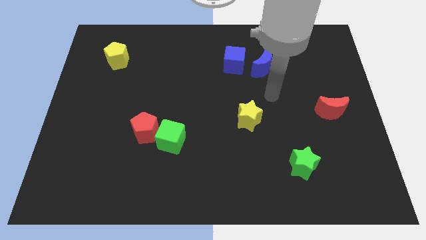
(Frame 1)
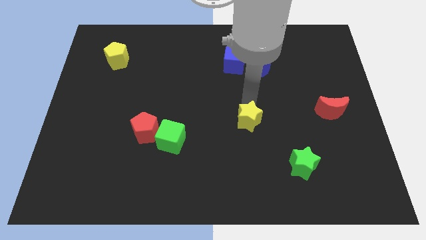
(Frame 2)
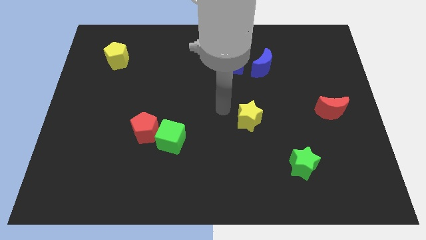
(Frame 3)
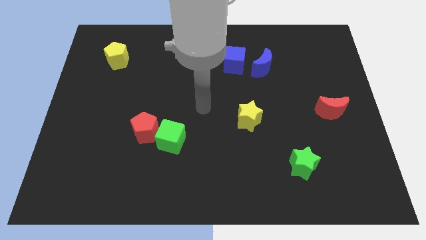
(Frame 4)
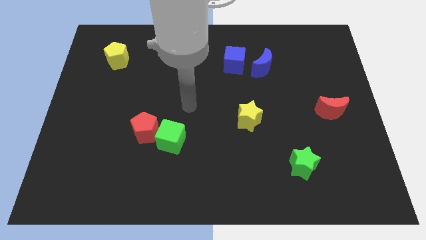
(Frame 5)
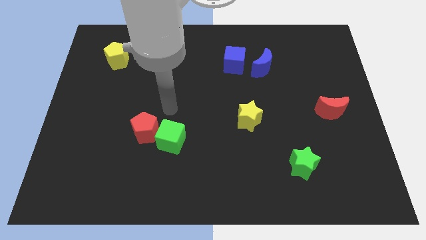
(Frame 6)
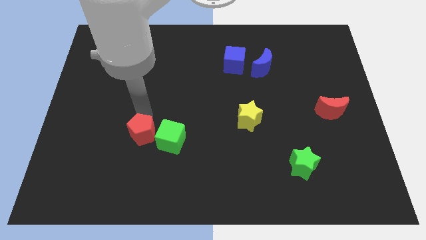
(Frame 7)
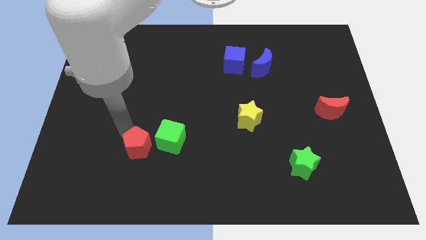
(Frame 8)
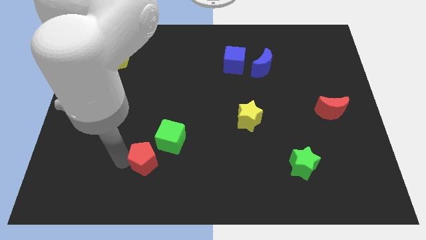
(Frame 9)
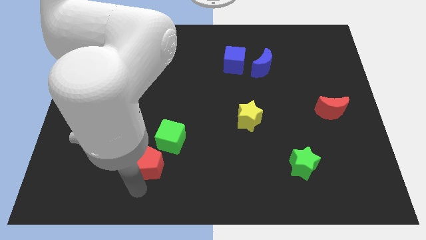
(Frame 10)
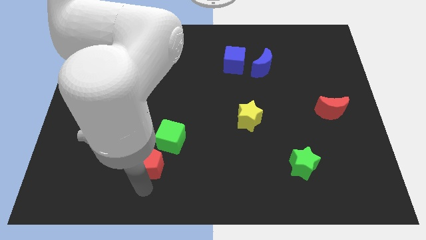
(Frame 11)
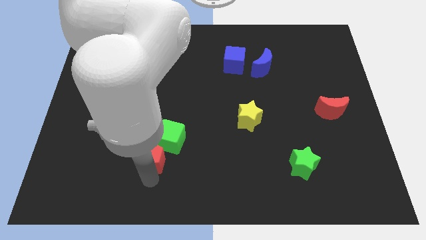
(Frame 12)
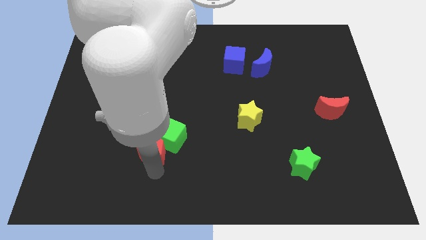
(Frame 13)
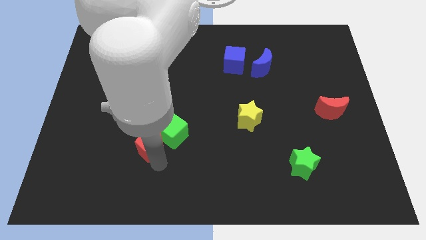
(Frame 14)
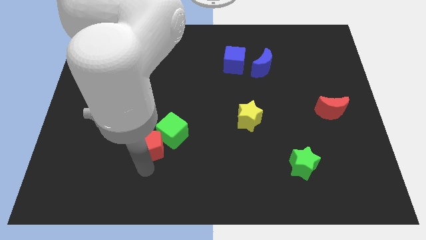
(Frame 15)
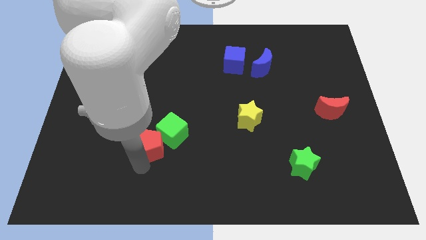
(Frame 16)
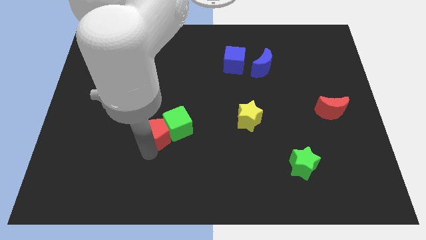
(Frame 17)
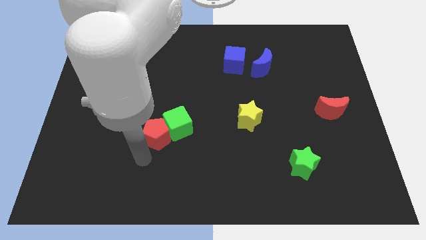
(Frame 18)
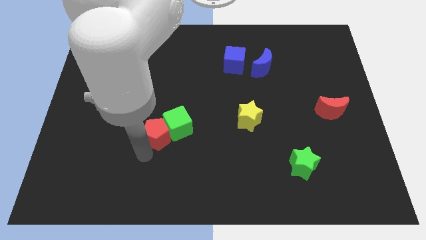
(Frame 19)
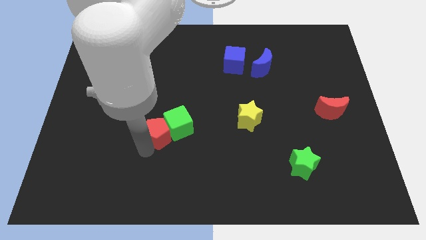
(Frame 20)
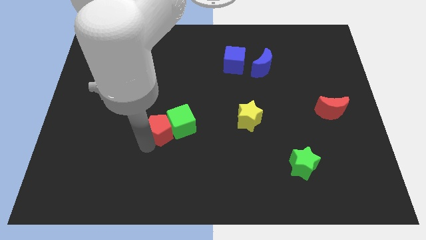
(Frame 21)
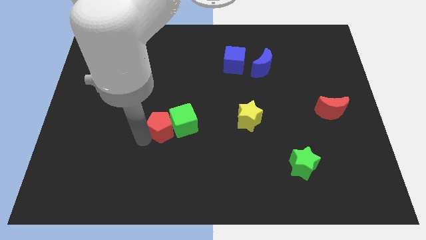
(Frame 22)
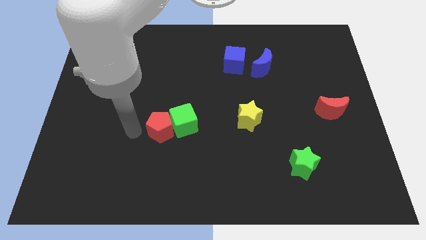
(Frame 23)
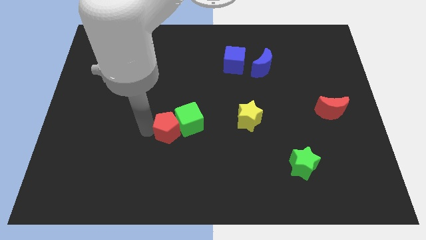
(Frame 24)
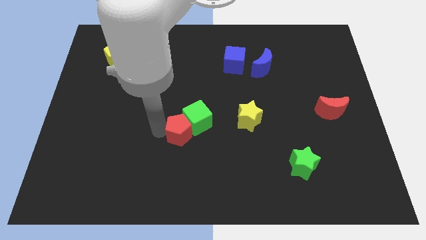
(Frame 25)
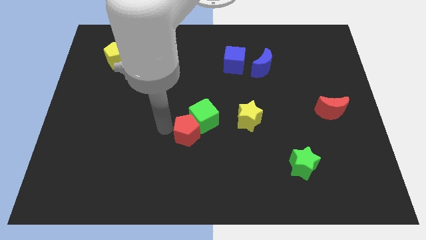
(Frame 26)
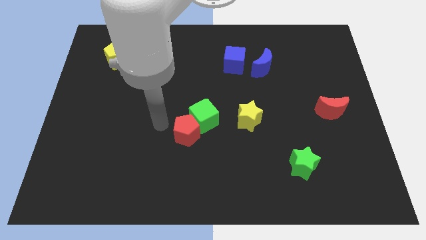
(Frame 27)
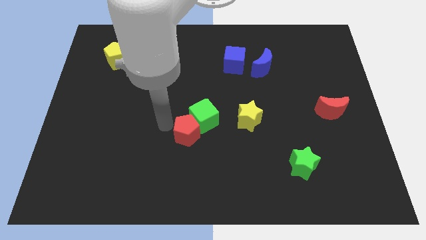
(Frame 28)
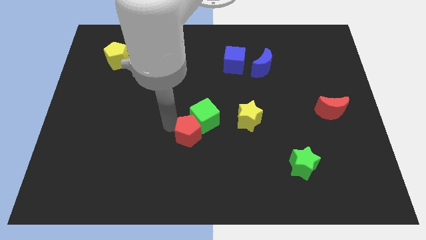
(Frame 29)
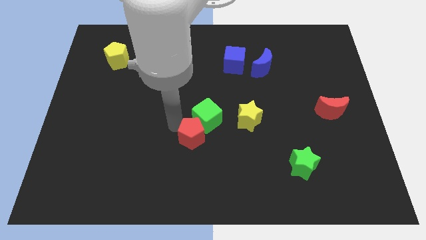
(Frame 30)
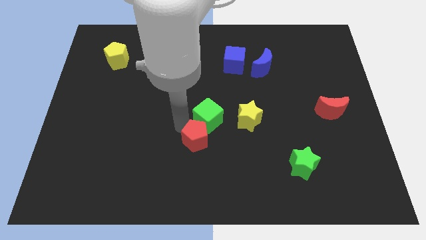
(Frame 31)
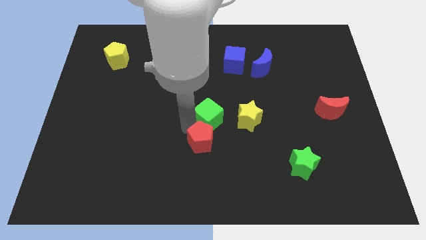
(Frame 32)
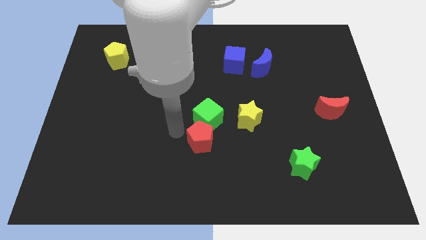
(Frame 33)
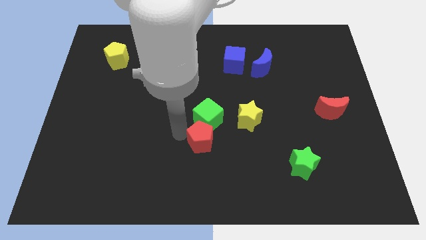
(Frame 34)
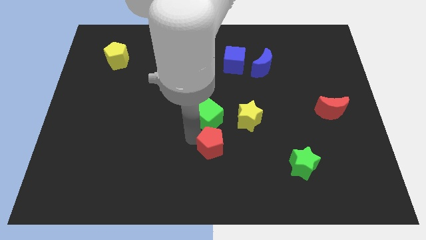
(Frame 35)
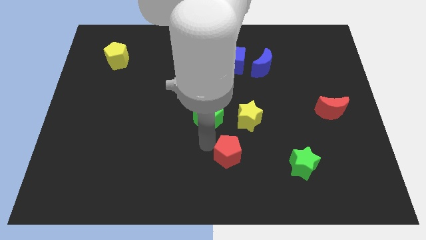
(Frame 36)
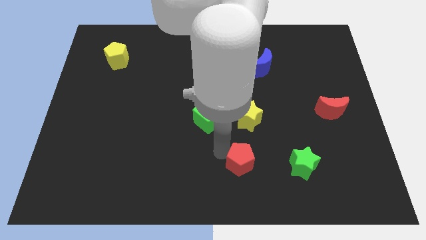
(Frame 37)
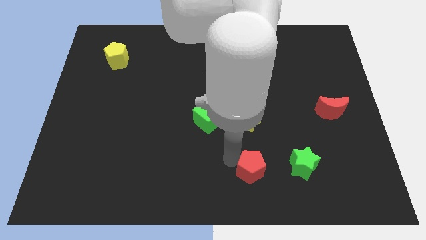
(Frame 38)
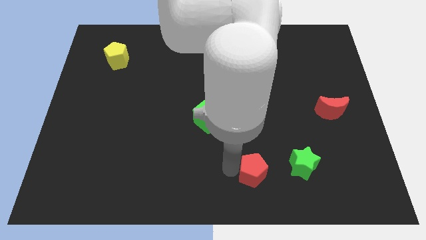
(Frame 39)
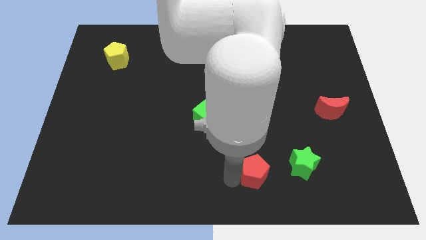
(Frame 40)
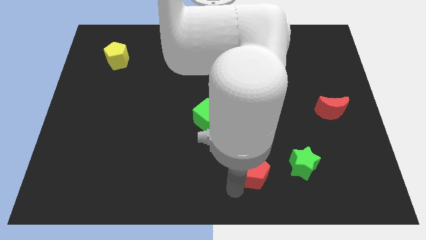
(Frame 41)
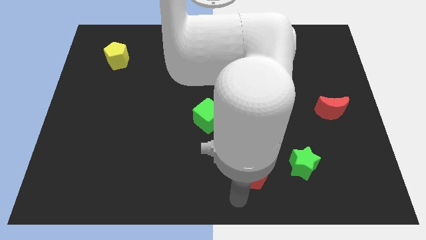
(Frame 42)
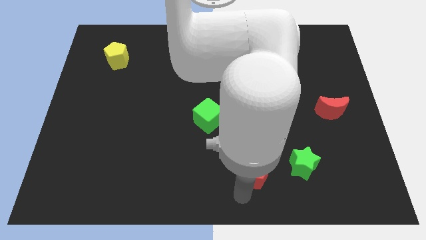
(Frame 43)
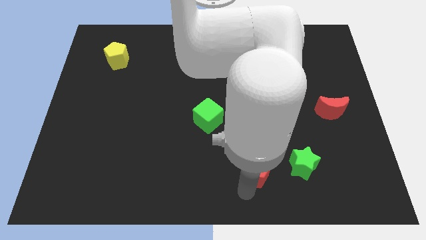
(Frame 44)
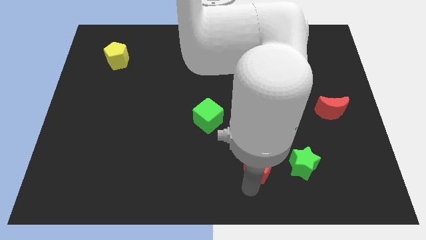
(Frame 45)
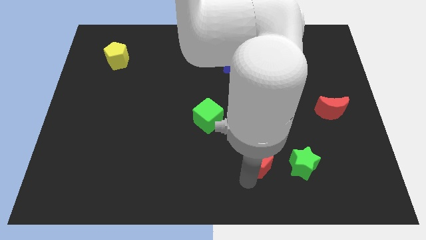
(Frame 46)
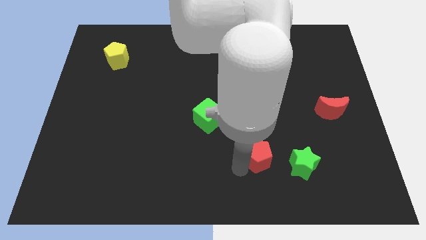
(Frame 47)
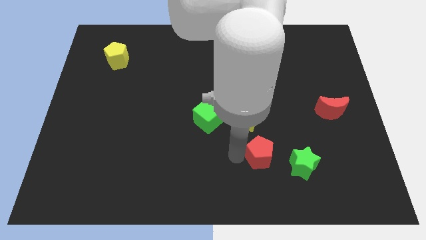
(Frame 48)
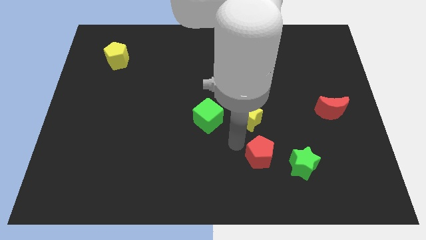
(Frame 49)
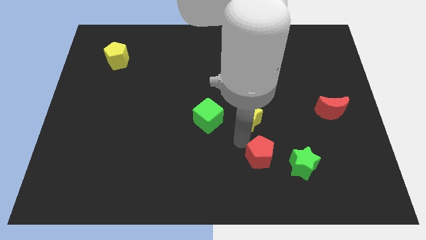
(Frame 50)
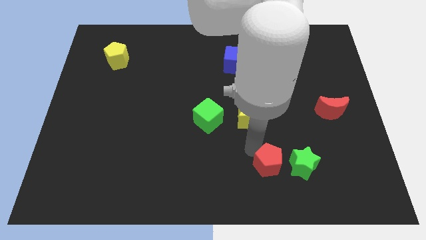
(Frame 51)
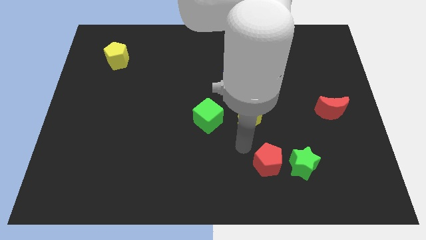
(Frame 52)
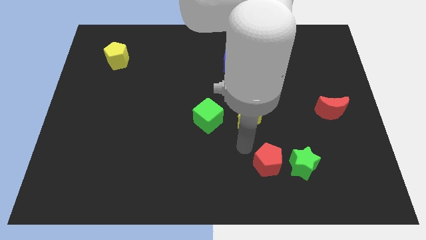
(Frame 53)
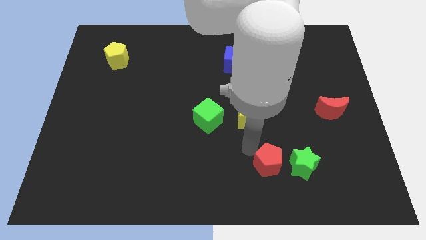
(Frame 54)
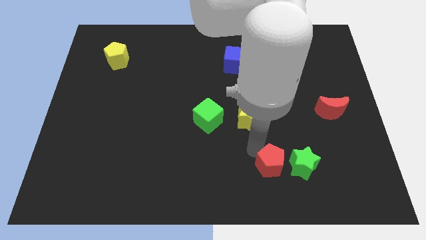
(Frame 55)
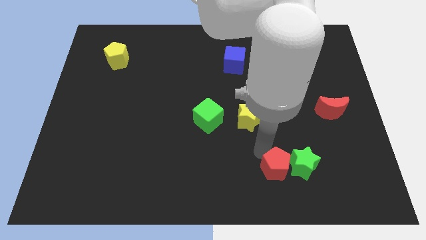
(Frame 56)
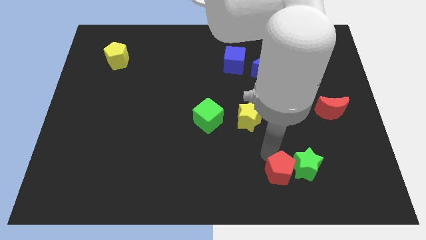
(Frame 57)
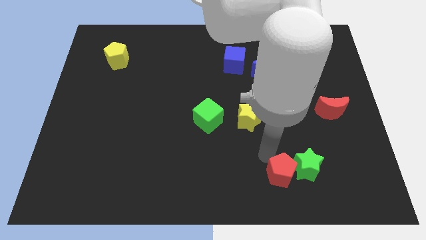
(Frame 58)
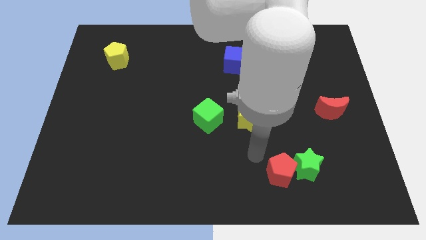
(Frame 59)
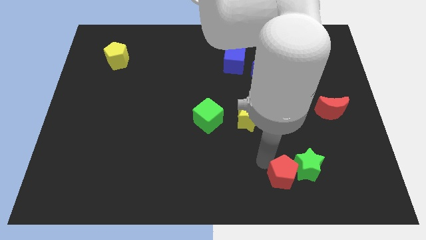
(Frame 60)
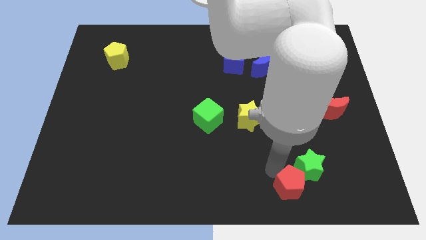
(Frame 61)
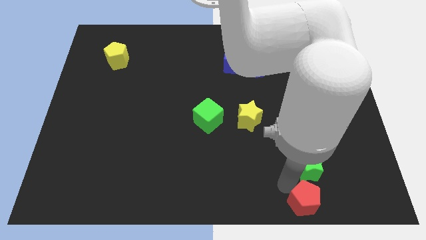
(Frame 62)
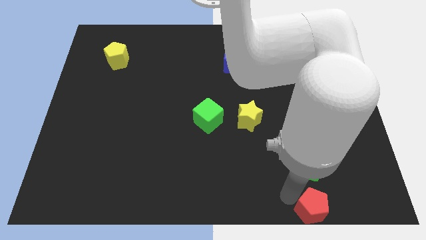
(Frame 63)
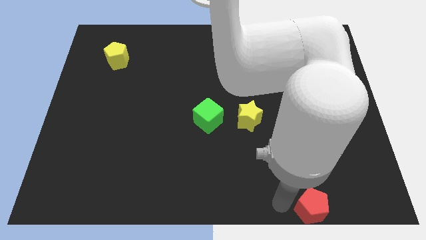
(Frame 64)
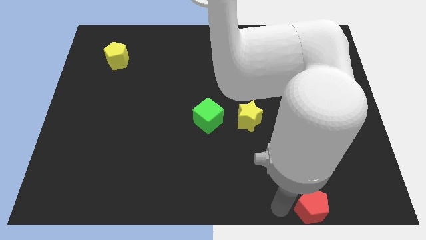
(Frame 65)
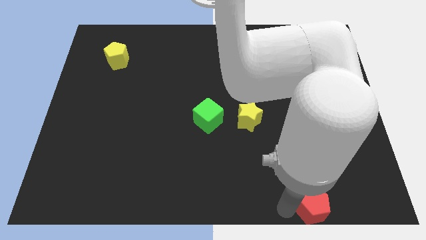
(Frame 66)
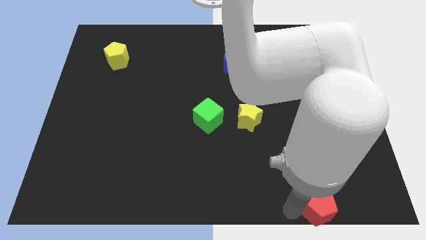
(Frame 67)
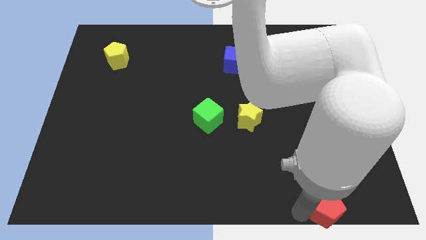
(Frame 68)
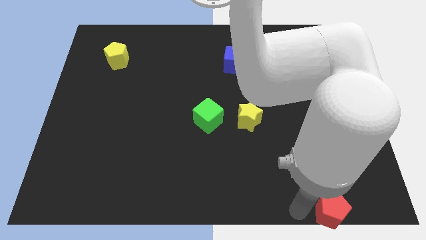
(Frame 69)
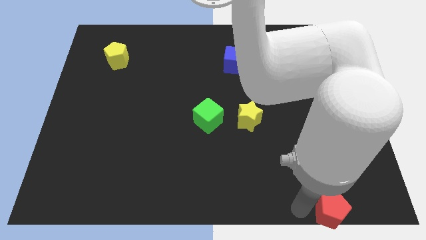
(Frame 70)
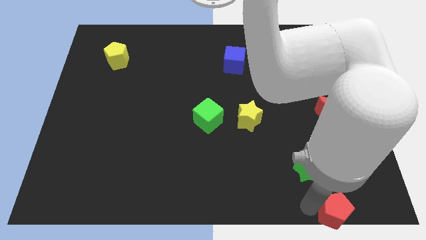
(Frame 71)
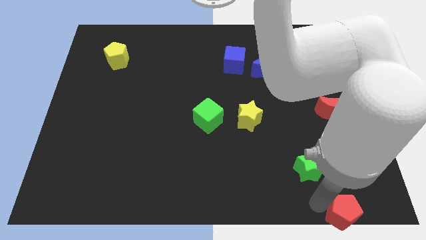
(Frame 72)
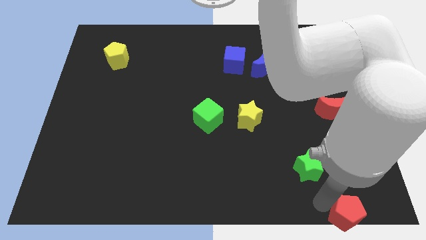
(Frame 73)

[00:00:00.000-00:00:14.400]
slide the red pentagon to the bottom right
